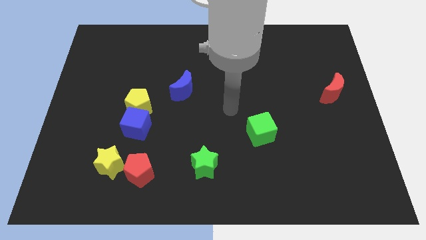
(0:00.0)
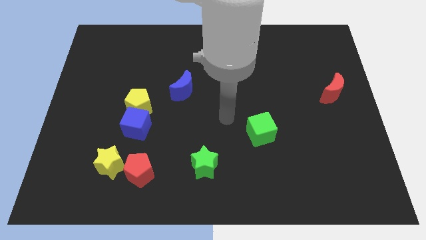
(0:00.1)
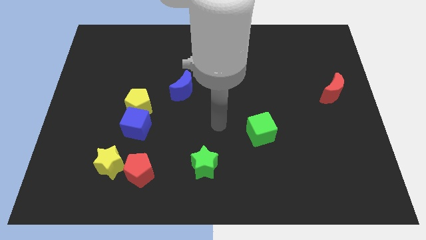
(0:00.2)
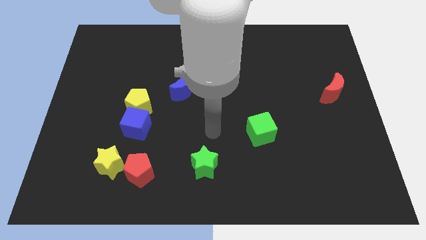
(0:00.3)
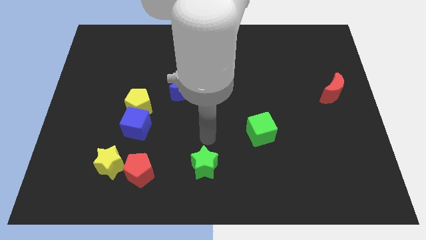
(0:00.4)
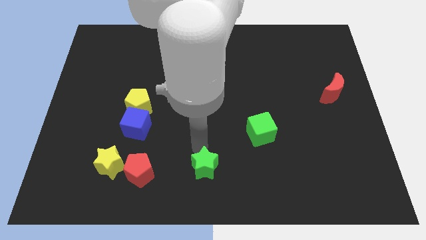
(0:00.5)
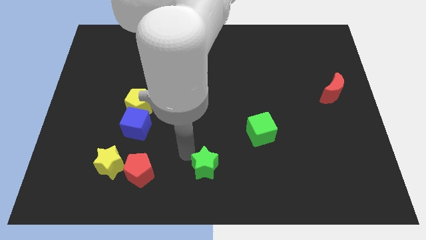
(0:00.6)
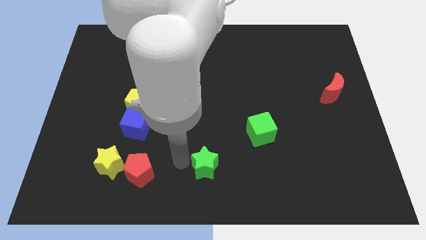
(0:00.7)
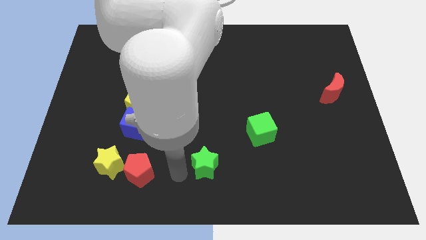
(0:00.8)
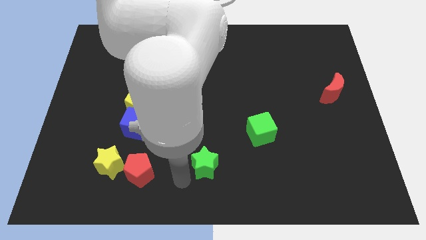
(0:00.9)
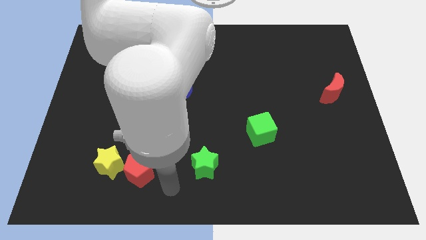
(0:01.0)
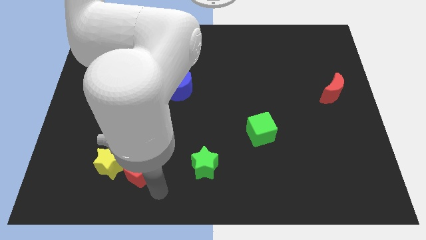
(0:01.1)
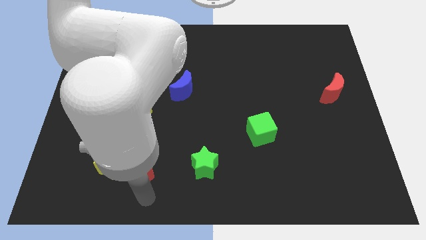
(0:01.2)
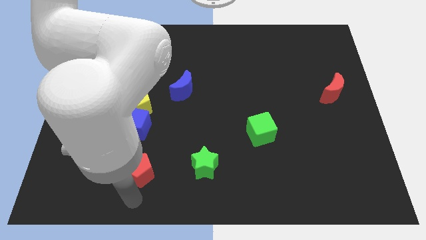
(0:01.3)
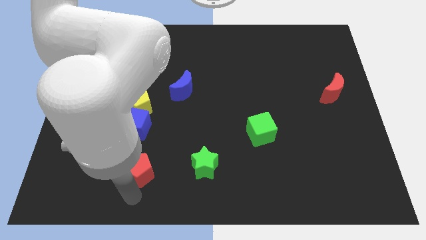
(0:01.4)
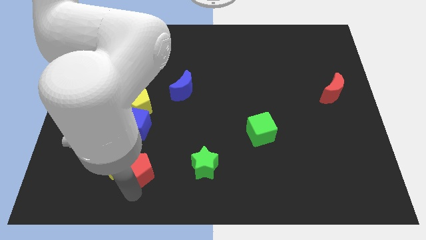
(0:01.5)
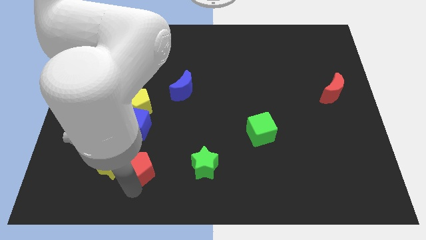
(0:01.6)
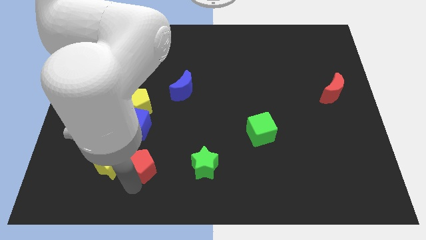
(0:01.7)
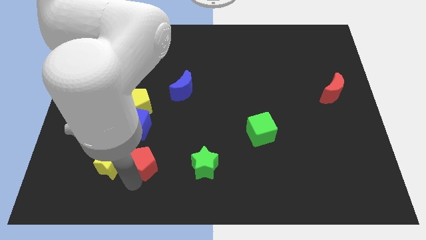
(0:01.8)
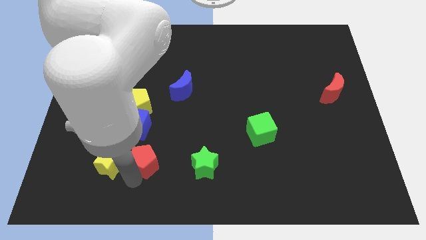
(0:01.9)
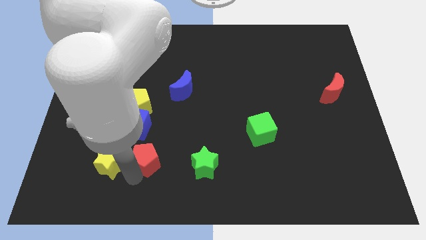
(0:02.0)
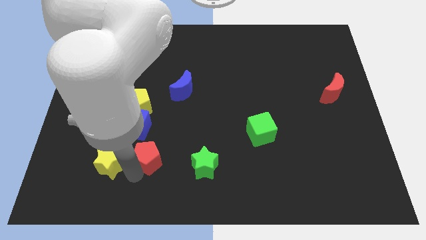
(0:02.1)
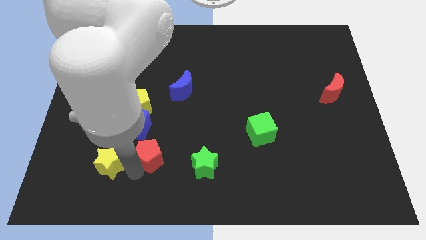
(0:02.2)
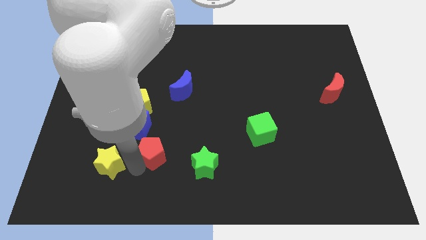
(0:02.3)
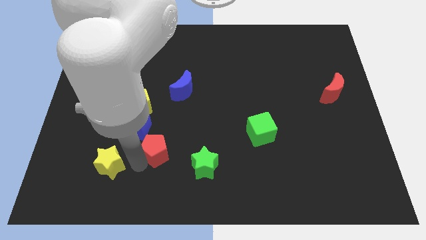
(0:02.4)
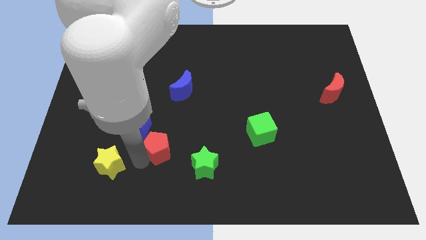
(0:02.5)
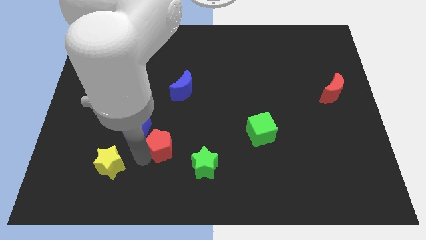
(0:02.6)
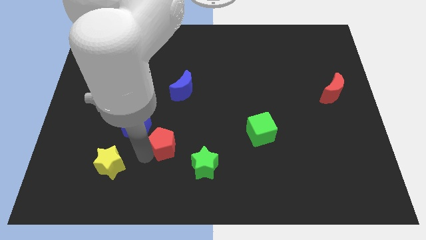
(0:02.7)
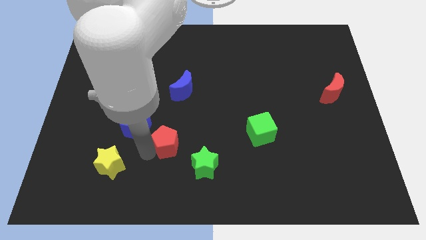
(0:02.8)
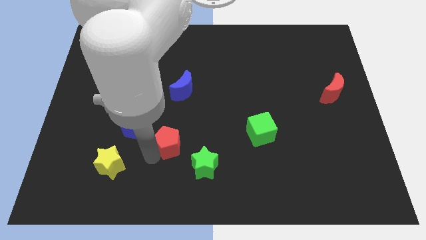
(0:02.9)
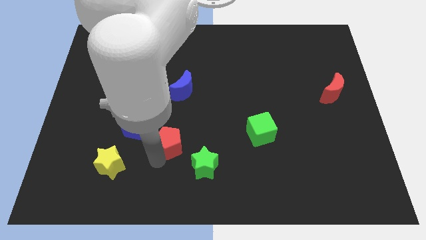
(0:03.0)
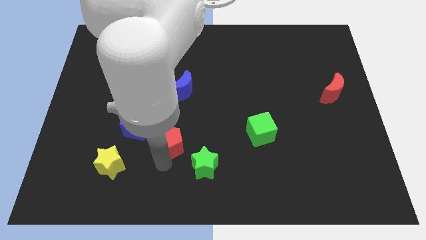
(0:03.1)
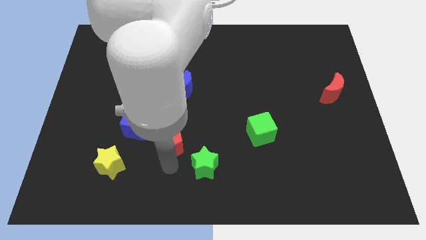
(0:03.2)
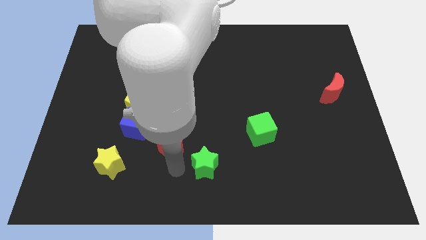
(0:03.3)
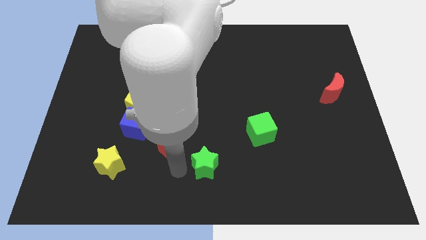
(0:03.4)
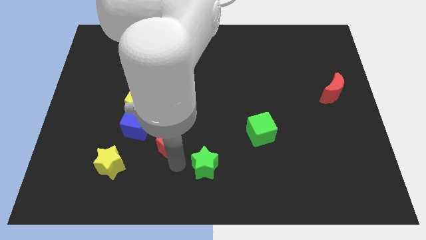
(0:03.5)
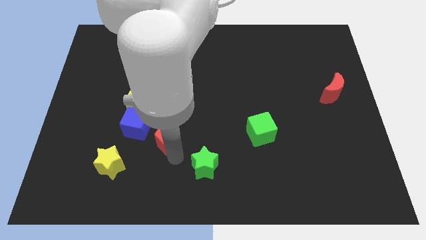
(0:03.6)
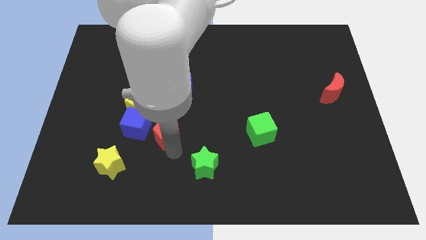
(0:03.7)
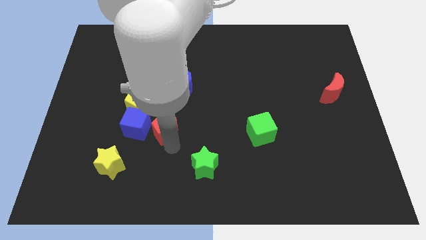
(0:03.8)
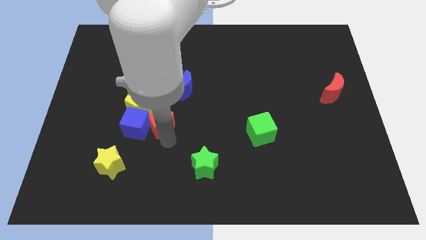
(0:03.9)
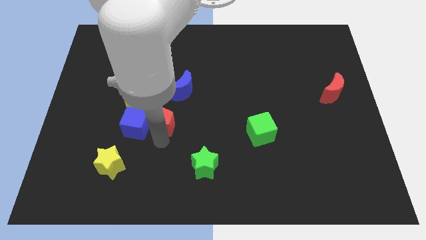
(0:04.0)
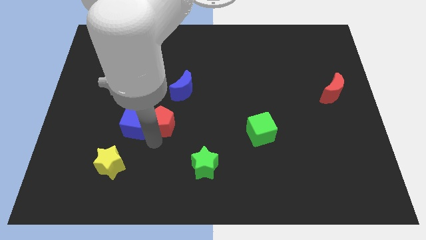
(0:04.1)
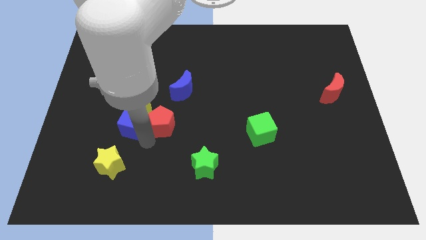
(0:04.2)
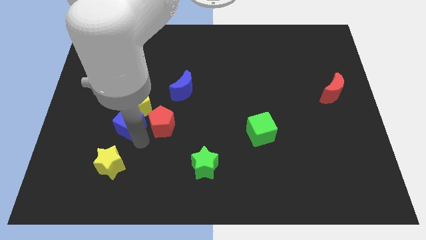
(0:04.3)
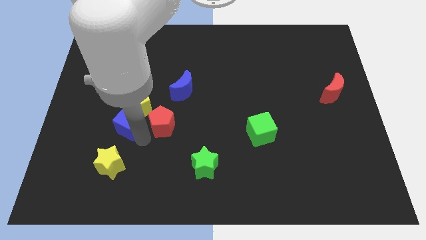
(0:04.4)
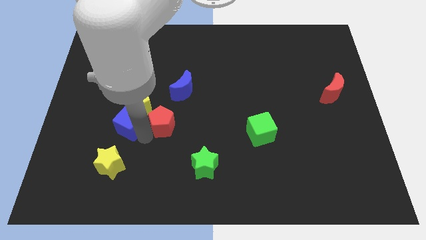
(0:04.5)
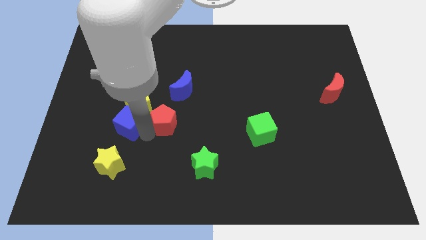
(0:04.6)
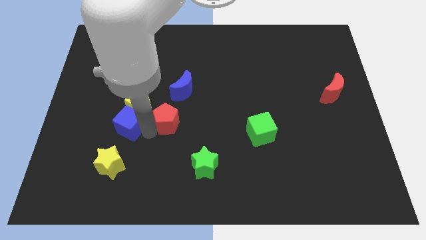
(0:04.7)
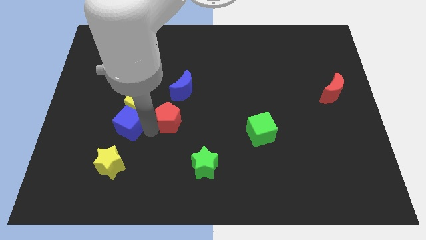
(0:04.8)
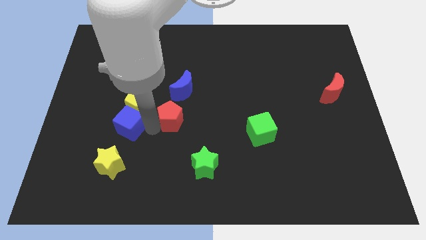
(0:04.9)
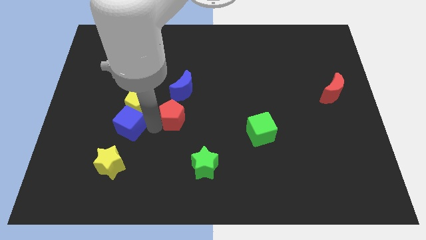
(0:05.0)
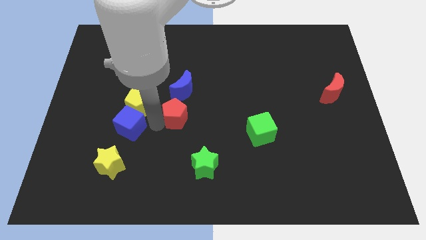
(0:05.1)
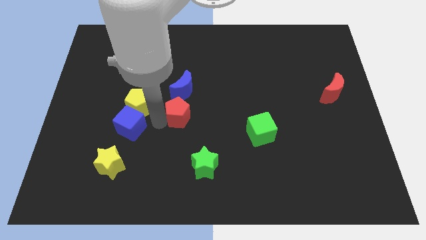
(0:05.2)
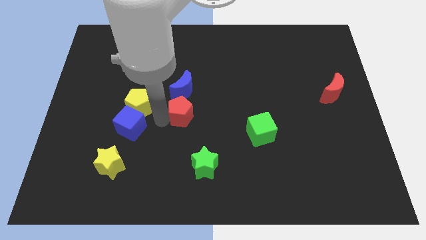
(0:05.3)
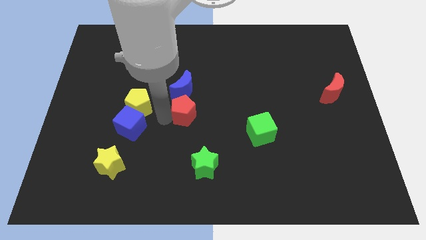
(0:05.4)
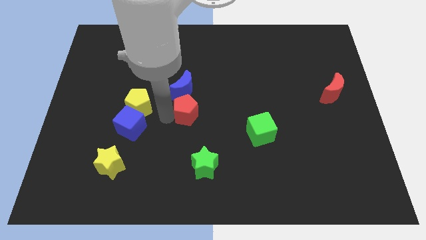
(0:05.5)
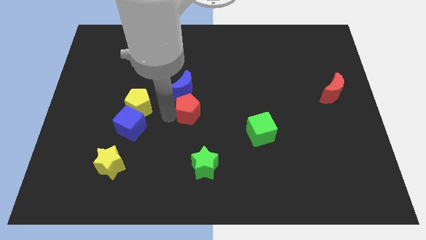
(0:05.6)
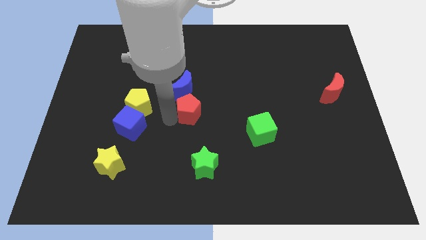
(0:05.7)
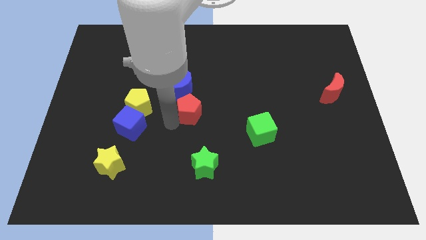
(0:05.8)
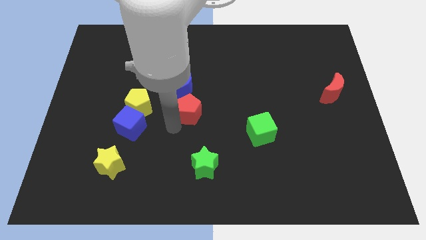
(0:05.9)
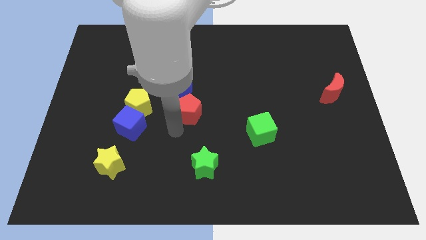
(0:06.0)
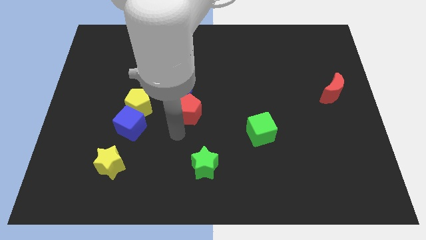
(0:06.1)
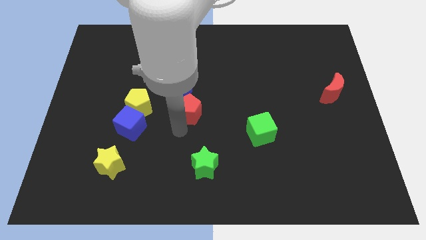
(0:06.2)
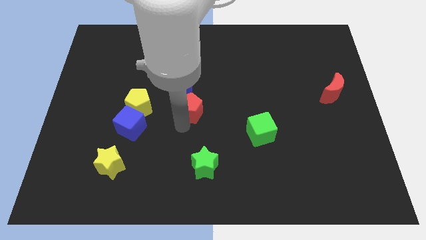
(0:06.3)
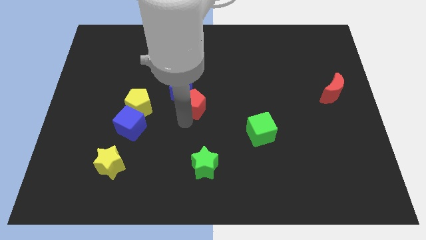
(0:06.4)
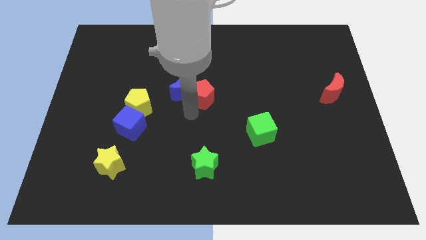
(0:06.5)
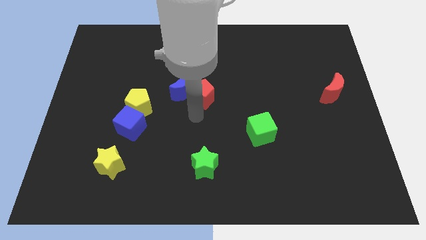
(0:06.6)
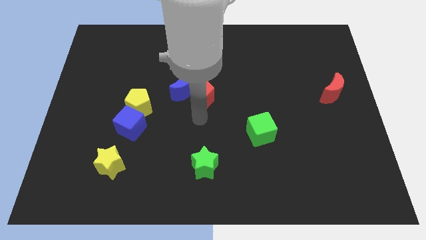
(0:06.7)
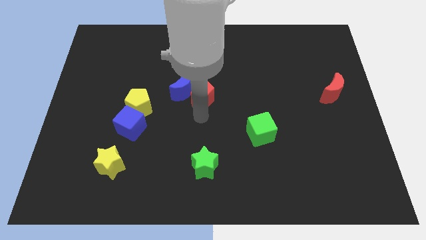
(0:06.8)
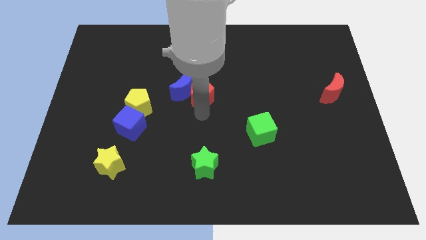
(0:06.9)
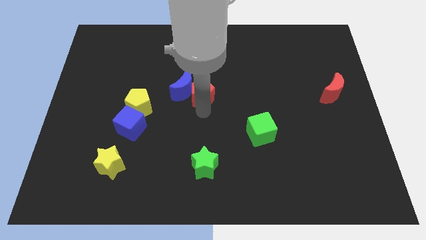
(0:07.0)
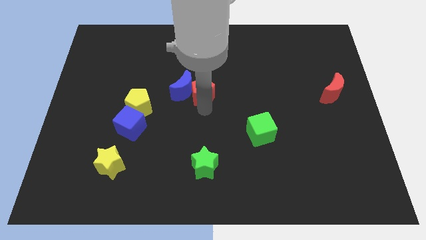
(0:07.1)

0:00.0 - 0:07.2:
move the red pentagon to the top right of the blue moon

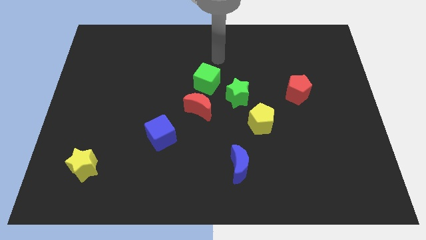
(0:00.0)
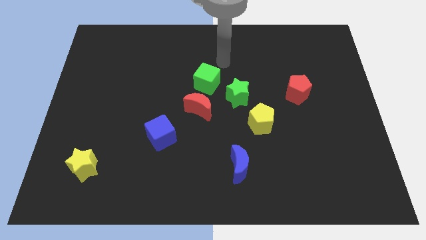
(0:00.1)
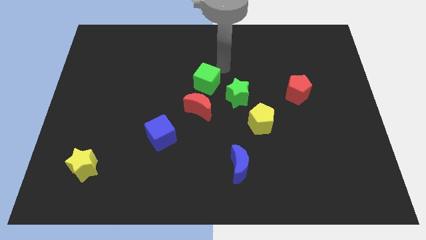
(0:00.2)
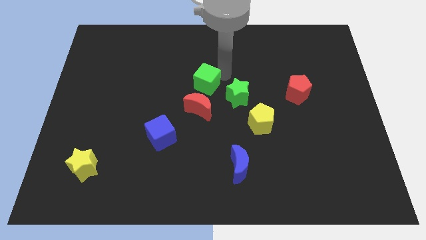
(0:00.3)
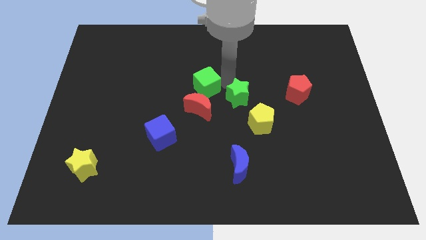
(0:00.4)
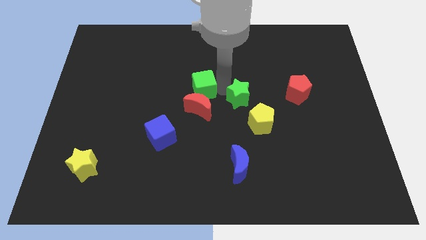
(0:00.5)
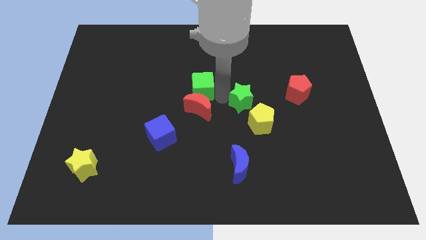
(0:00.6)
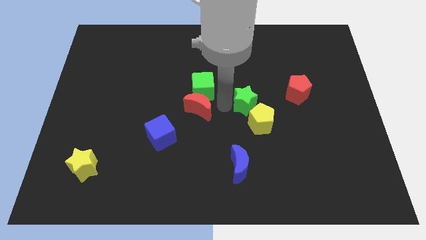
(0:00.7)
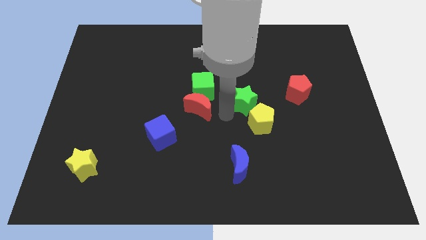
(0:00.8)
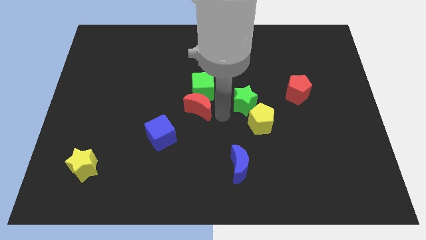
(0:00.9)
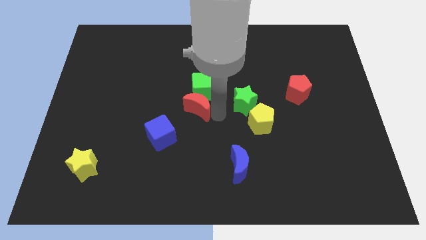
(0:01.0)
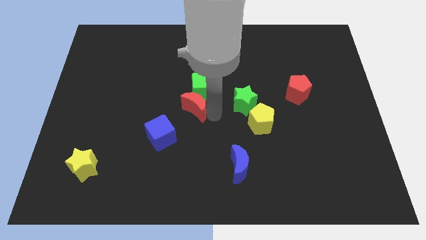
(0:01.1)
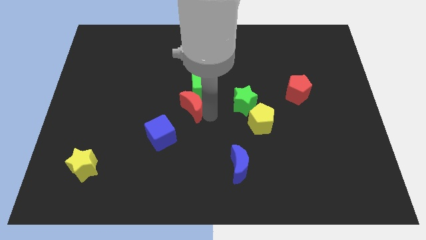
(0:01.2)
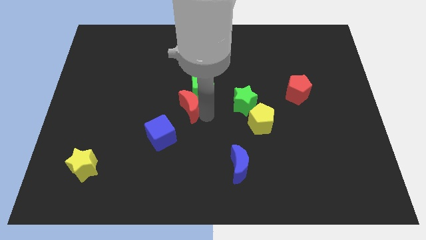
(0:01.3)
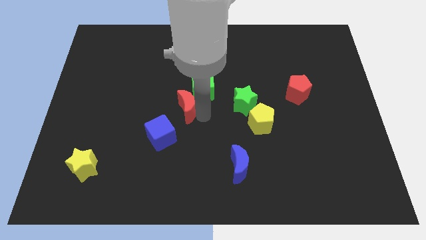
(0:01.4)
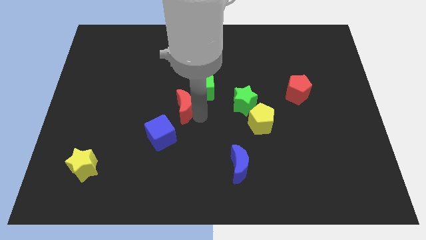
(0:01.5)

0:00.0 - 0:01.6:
slide the red moon to the top of the blue cube
